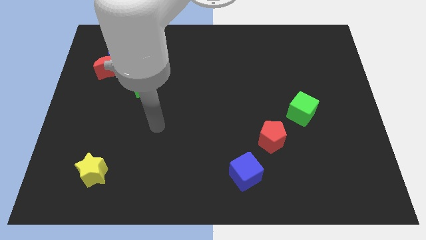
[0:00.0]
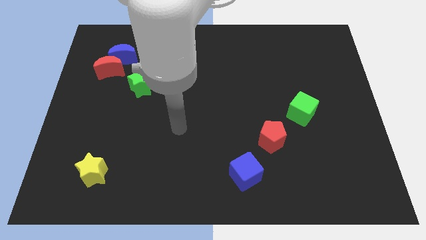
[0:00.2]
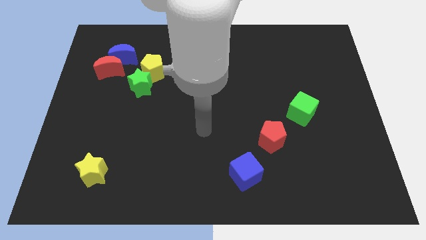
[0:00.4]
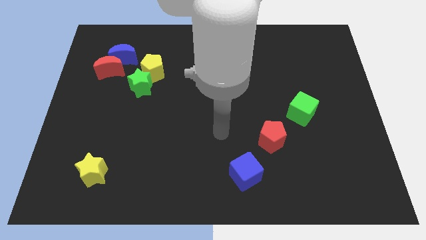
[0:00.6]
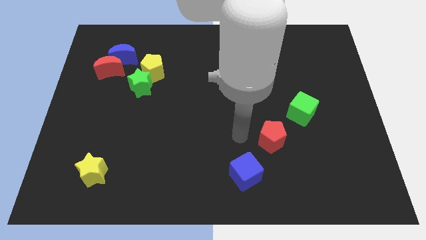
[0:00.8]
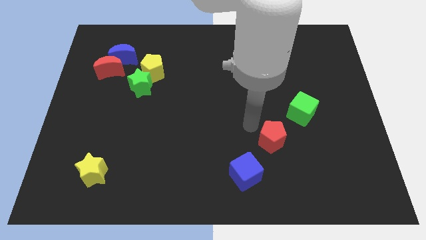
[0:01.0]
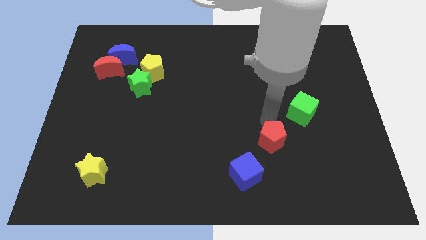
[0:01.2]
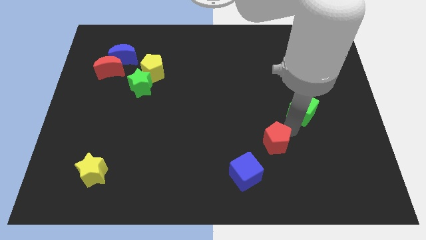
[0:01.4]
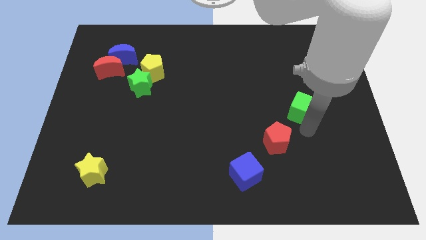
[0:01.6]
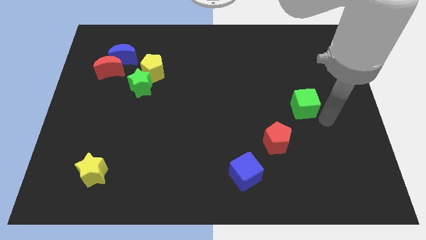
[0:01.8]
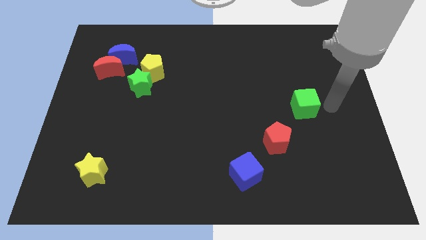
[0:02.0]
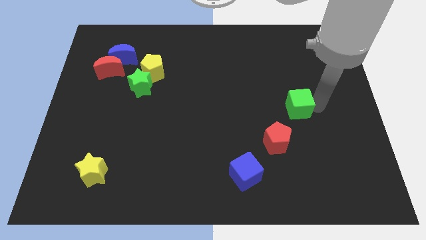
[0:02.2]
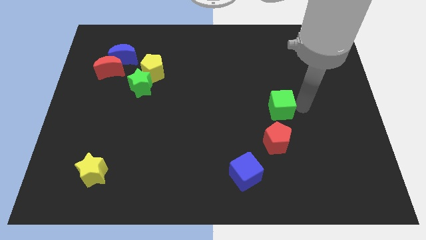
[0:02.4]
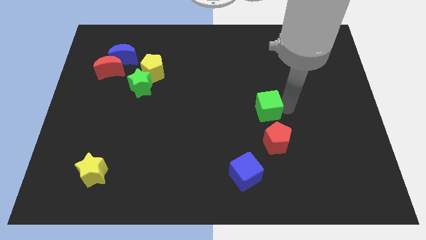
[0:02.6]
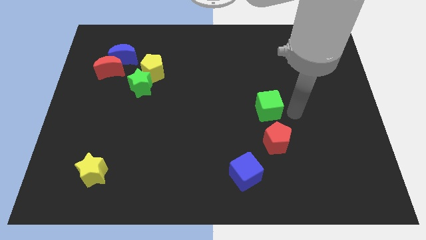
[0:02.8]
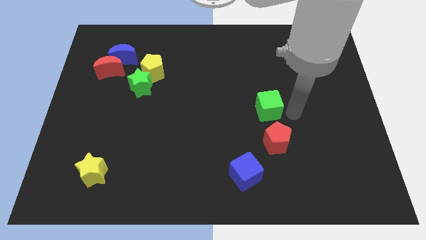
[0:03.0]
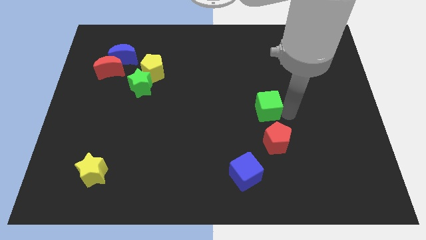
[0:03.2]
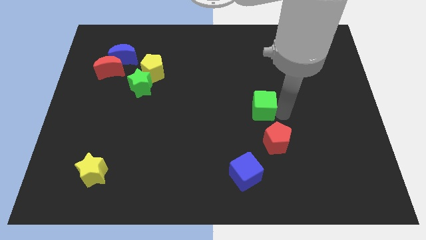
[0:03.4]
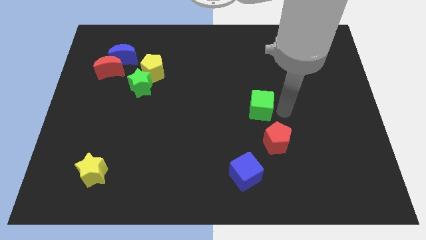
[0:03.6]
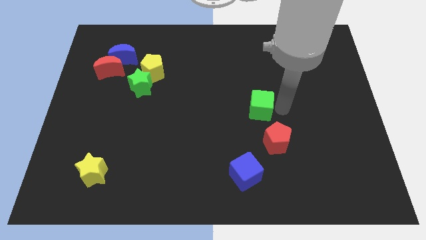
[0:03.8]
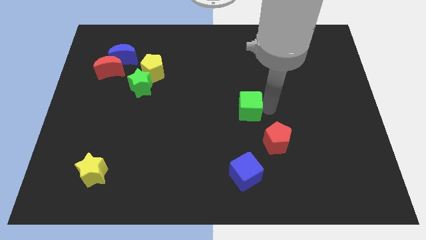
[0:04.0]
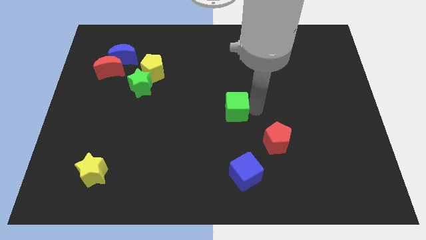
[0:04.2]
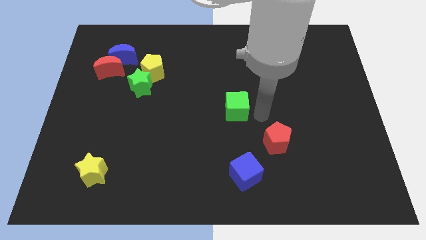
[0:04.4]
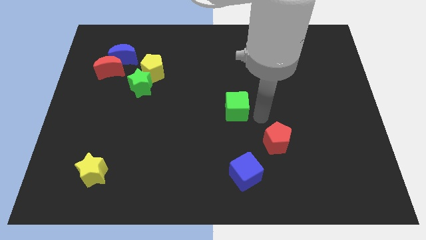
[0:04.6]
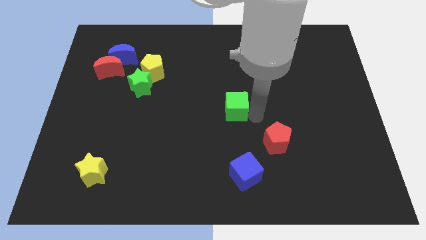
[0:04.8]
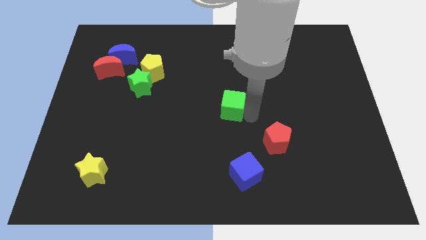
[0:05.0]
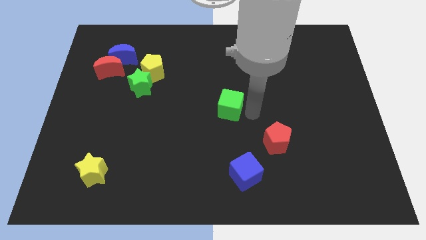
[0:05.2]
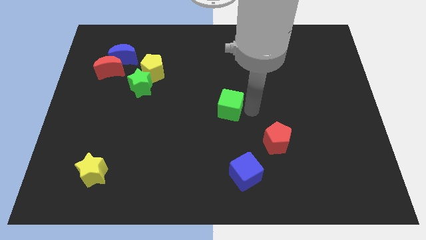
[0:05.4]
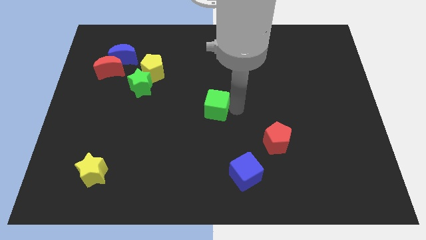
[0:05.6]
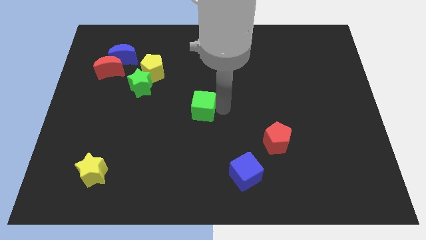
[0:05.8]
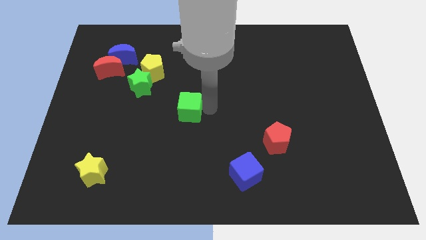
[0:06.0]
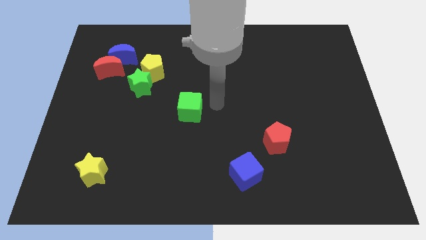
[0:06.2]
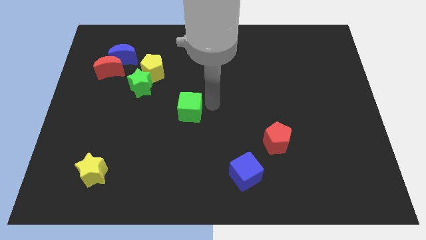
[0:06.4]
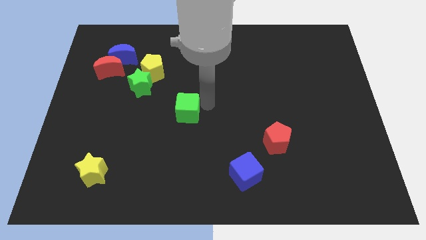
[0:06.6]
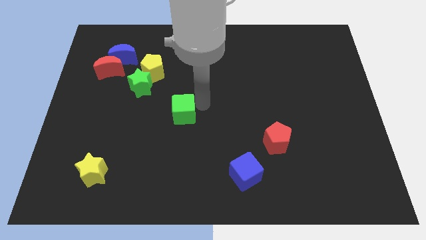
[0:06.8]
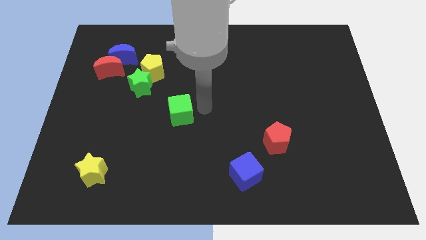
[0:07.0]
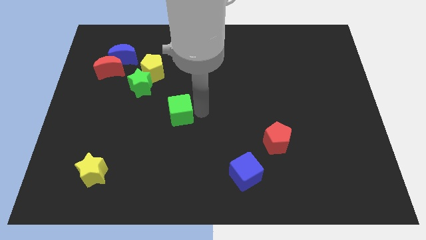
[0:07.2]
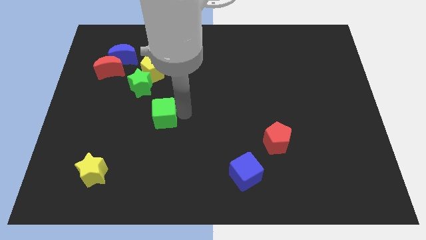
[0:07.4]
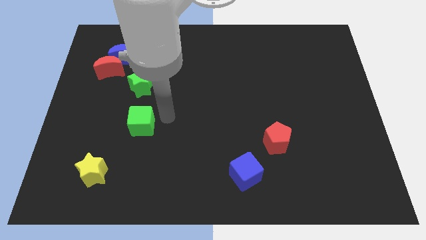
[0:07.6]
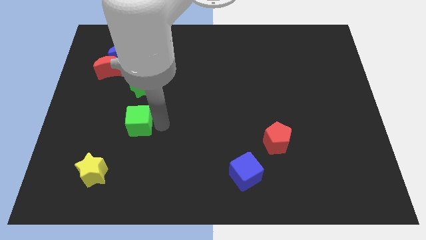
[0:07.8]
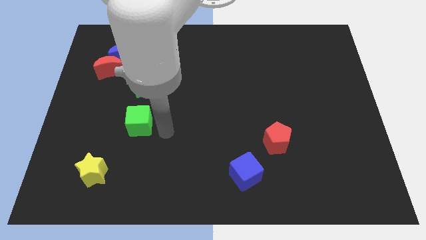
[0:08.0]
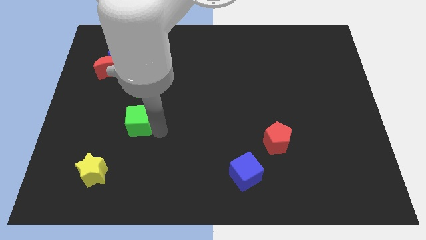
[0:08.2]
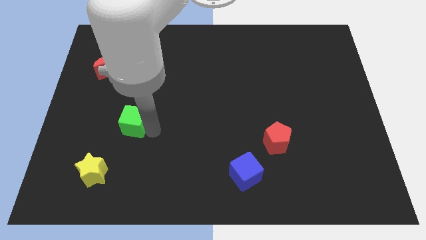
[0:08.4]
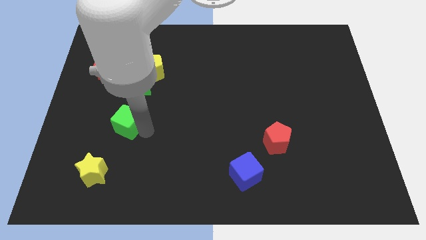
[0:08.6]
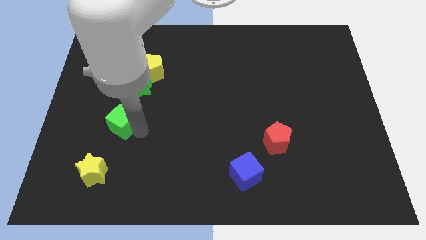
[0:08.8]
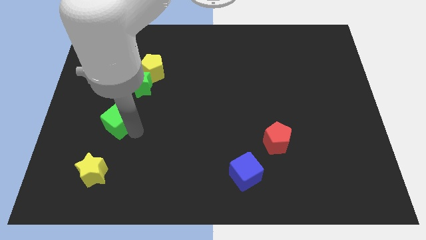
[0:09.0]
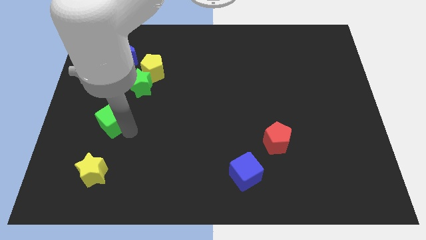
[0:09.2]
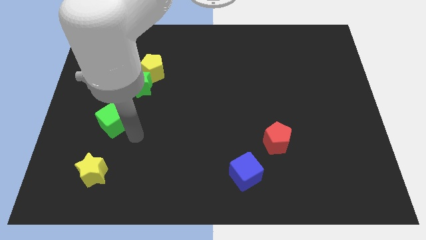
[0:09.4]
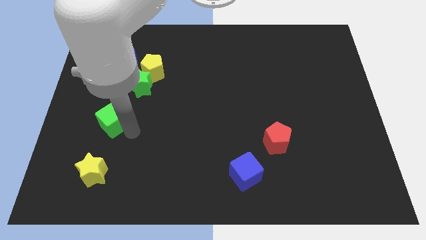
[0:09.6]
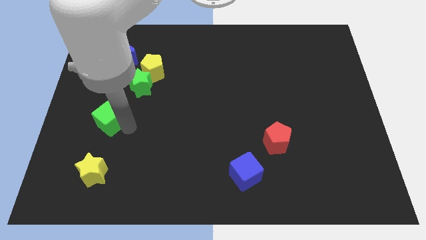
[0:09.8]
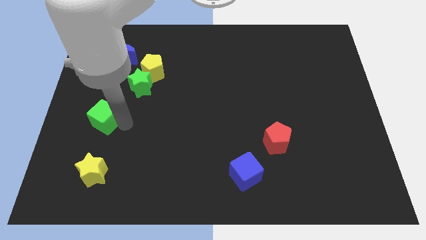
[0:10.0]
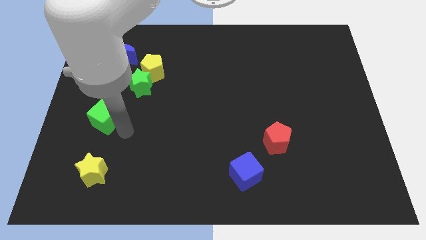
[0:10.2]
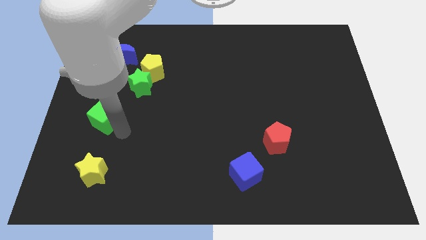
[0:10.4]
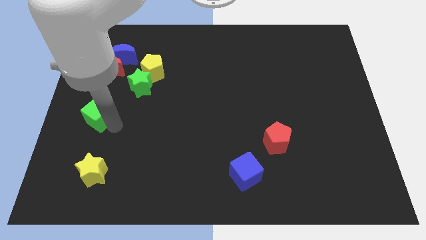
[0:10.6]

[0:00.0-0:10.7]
move the green cube to the left side

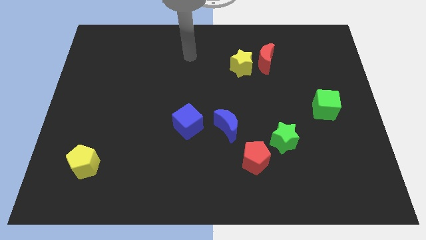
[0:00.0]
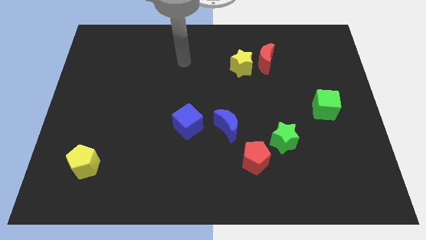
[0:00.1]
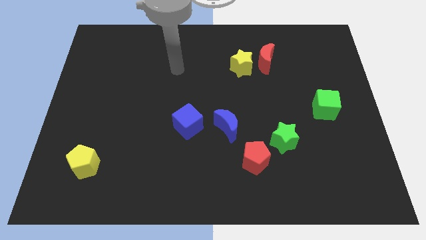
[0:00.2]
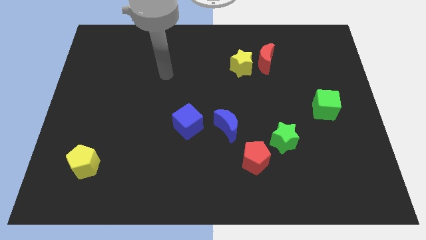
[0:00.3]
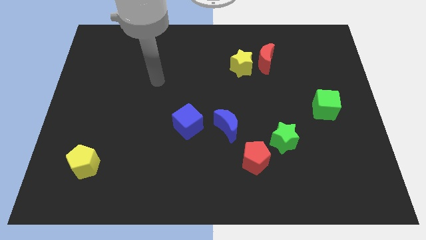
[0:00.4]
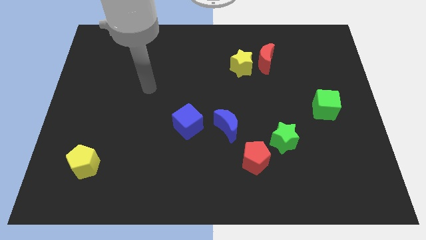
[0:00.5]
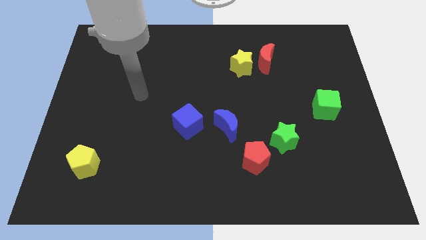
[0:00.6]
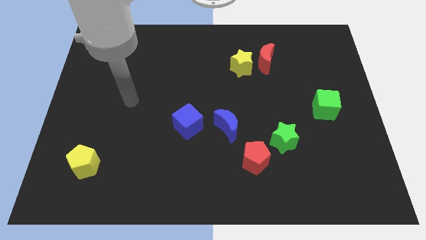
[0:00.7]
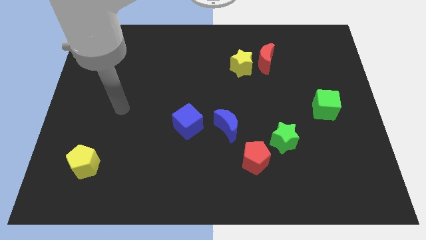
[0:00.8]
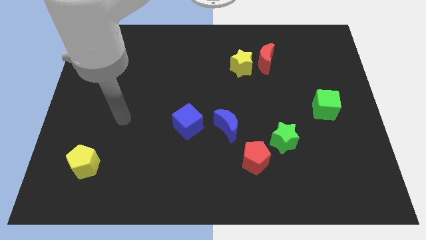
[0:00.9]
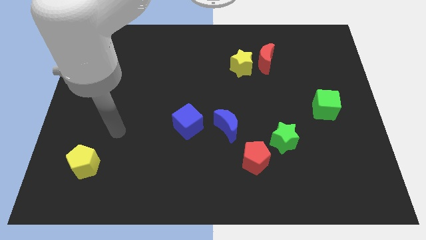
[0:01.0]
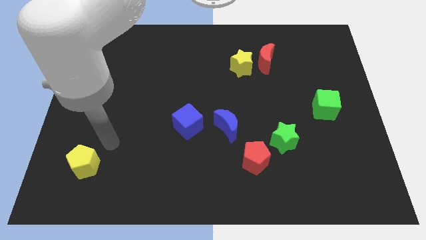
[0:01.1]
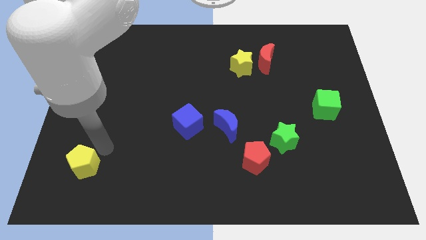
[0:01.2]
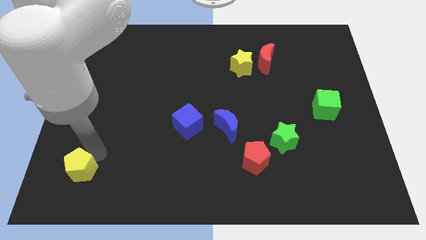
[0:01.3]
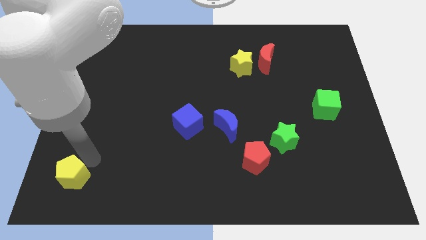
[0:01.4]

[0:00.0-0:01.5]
slide the yellow pentagon to the bottom left of the board
